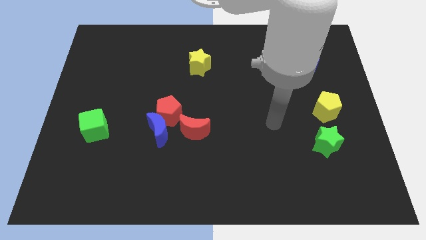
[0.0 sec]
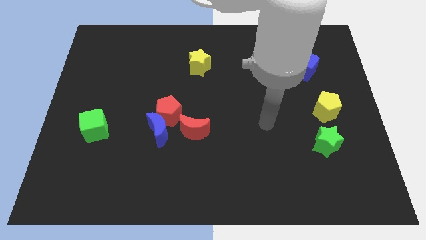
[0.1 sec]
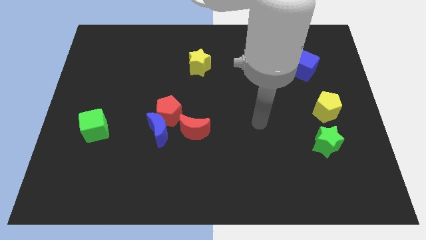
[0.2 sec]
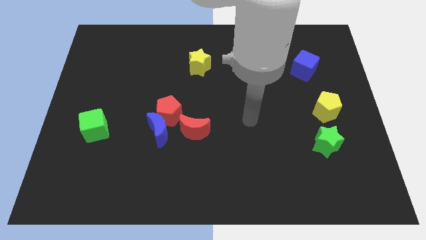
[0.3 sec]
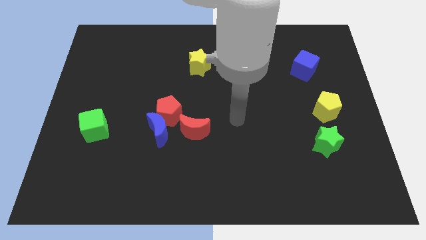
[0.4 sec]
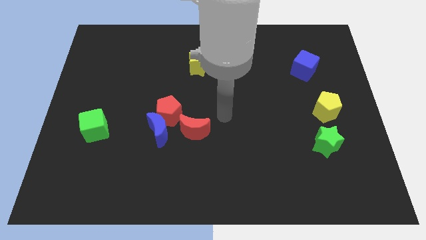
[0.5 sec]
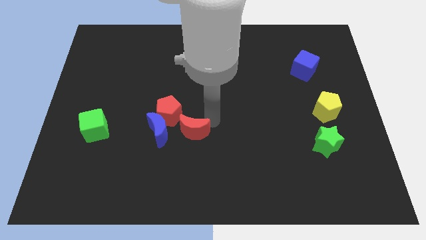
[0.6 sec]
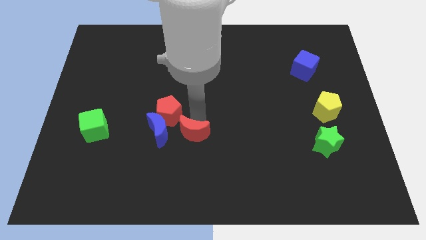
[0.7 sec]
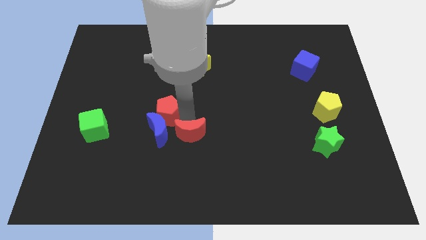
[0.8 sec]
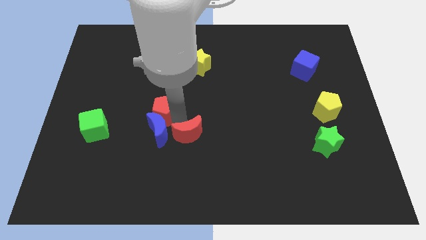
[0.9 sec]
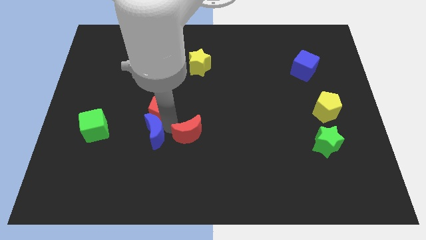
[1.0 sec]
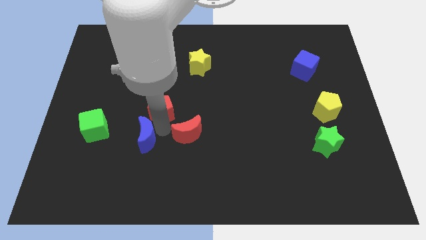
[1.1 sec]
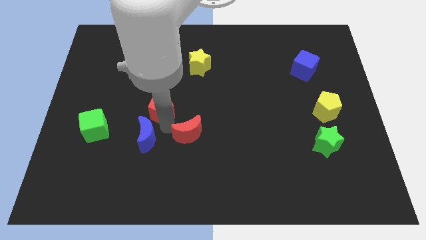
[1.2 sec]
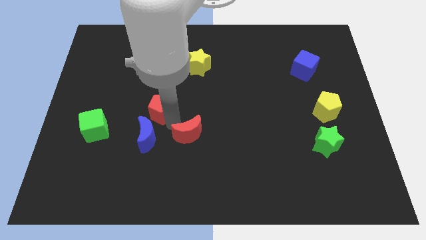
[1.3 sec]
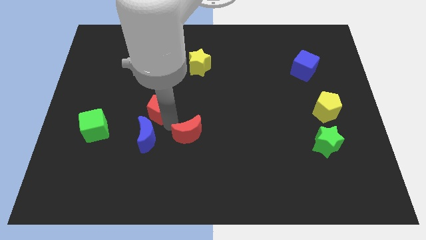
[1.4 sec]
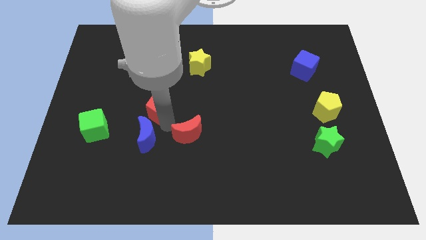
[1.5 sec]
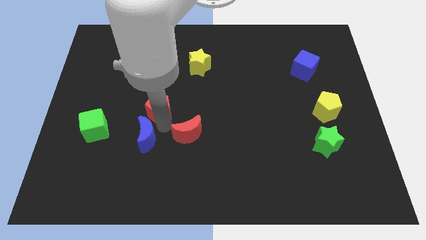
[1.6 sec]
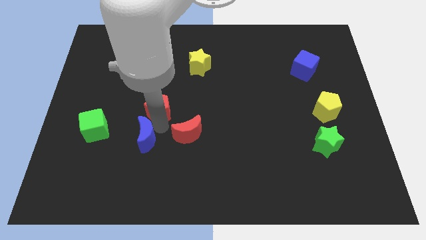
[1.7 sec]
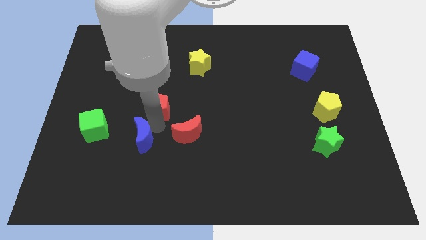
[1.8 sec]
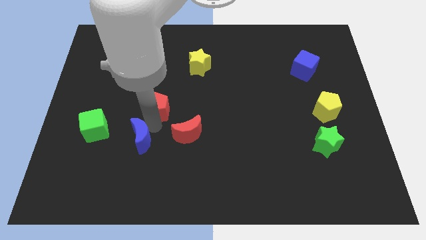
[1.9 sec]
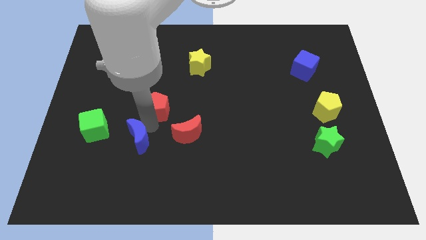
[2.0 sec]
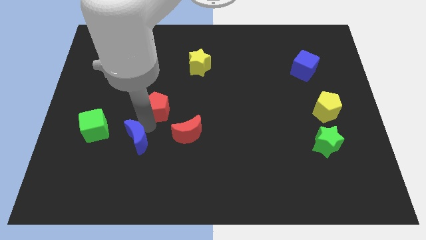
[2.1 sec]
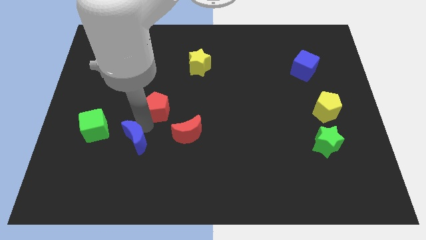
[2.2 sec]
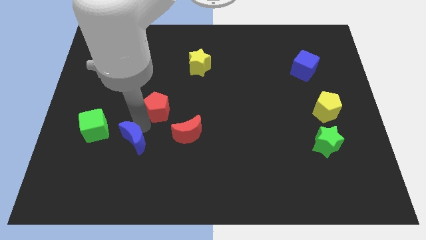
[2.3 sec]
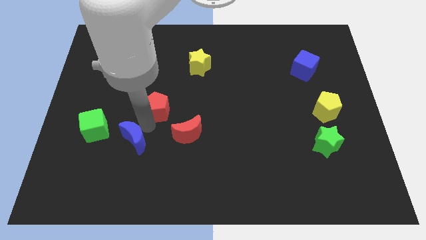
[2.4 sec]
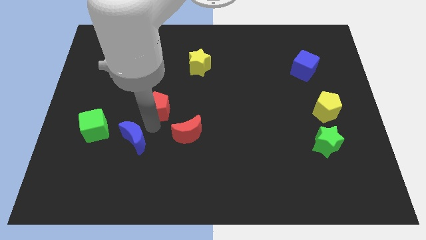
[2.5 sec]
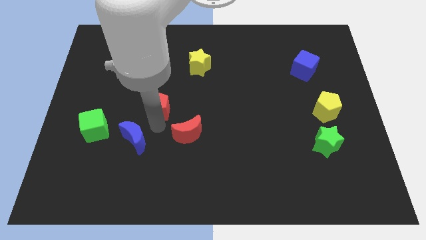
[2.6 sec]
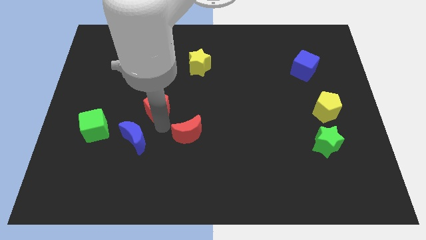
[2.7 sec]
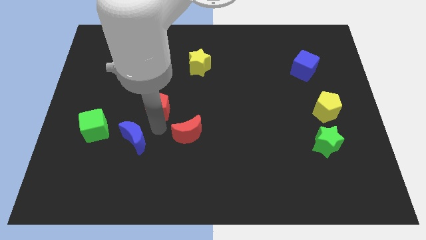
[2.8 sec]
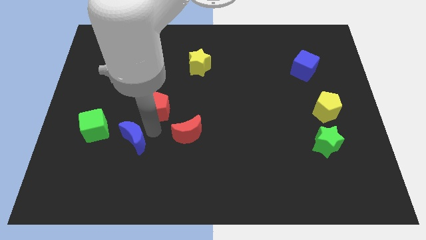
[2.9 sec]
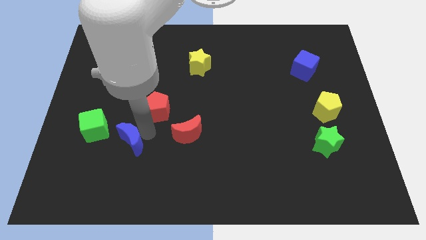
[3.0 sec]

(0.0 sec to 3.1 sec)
pull the blue moon apart from the red pentagon and red moon

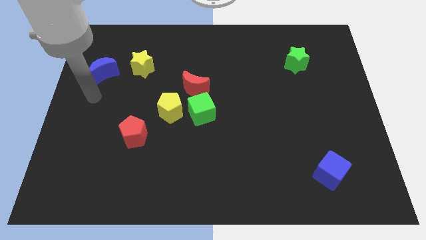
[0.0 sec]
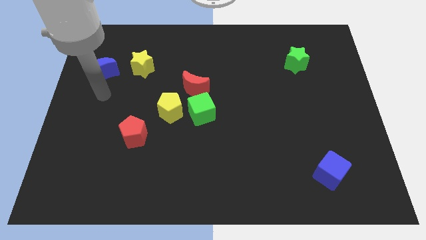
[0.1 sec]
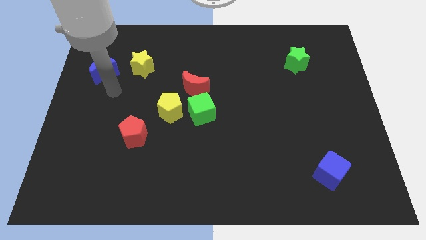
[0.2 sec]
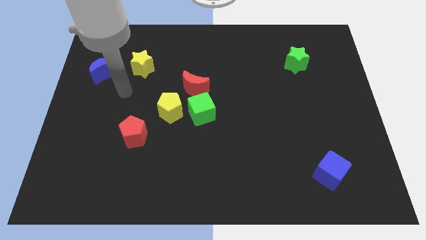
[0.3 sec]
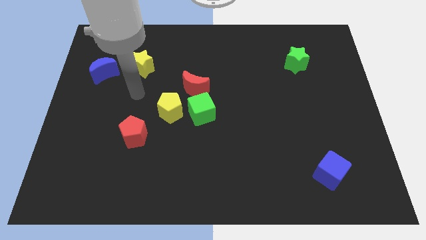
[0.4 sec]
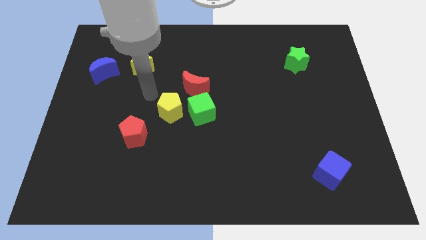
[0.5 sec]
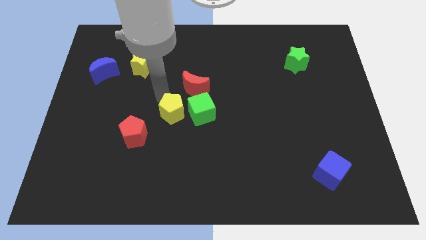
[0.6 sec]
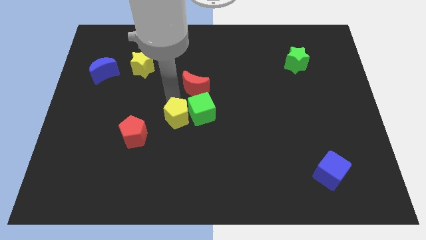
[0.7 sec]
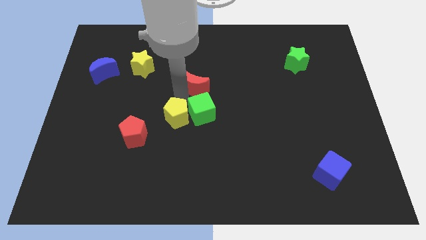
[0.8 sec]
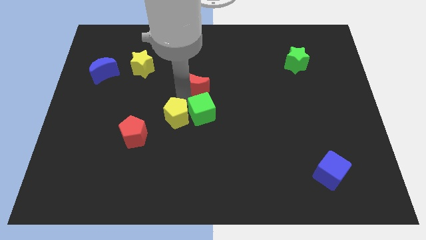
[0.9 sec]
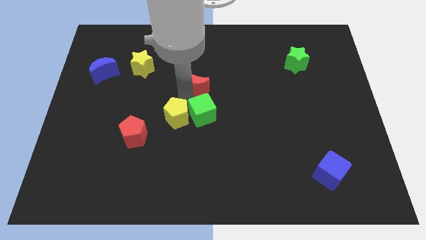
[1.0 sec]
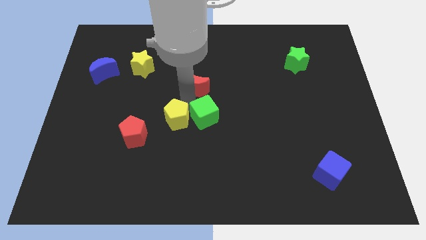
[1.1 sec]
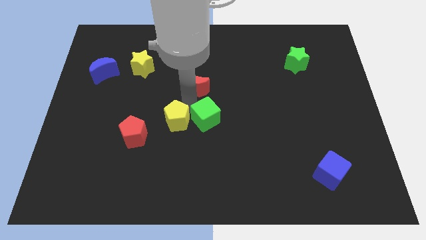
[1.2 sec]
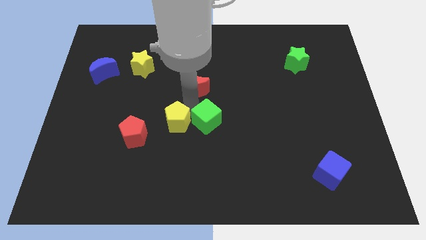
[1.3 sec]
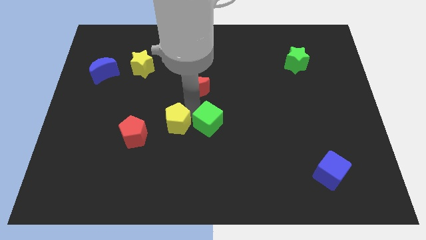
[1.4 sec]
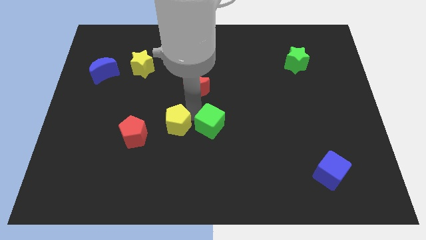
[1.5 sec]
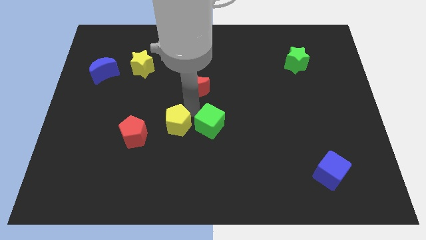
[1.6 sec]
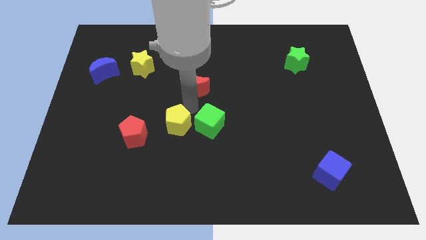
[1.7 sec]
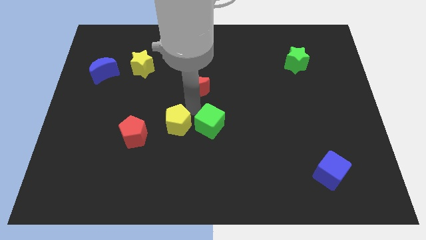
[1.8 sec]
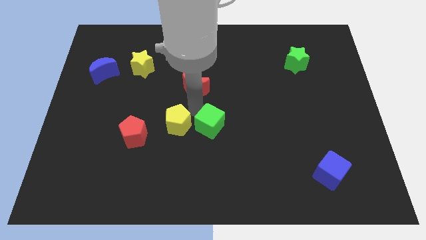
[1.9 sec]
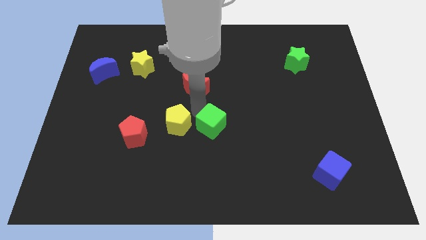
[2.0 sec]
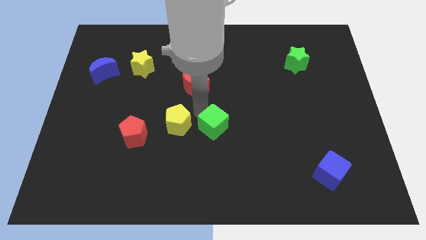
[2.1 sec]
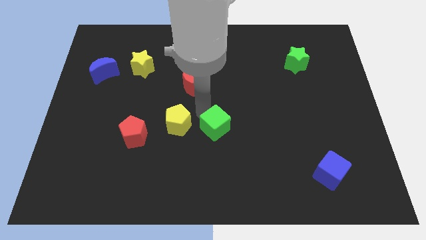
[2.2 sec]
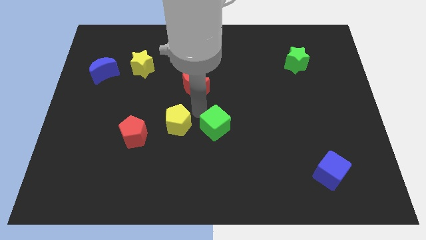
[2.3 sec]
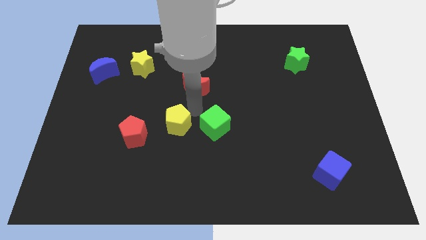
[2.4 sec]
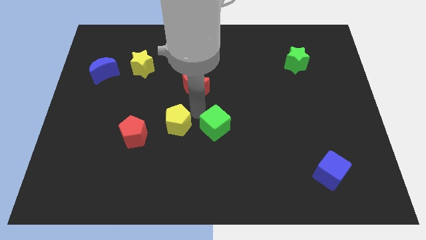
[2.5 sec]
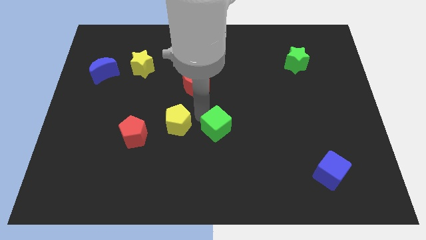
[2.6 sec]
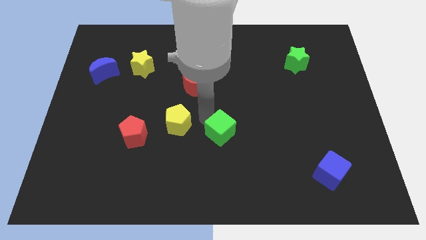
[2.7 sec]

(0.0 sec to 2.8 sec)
pull the green cube apart from the yellow pentagon and red moon

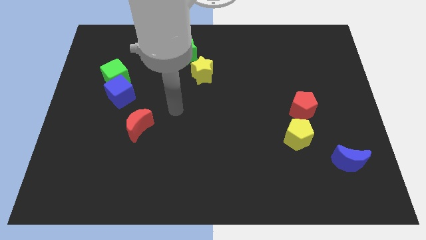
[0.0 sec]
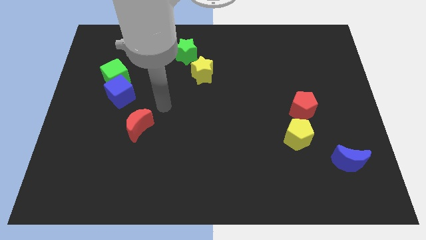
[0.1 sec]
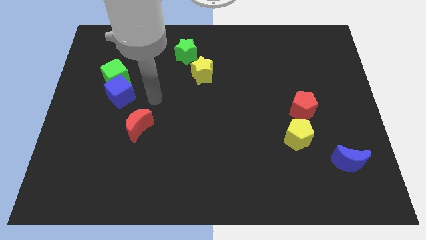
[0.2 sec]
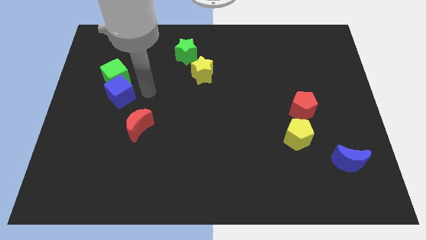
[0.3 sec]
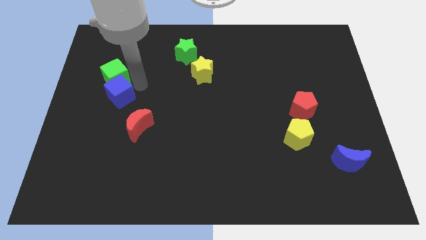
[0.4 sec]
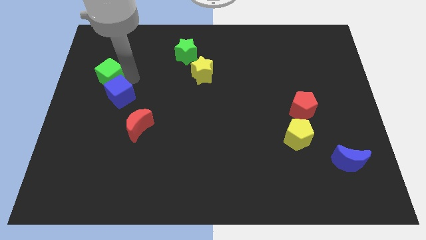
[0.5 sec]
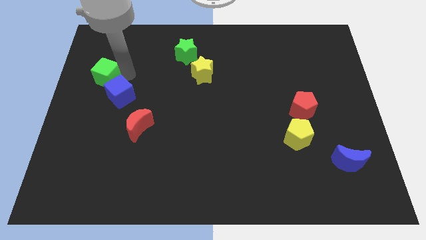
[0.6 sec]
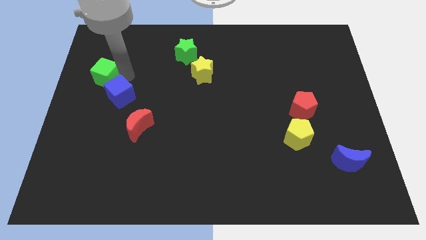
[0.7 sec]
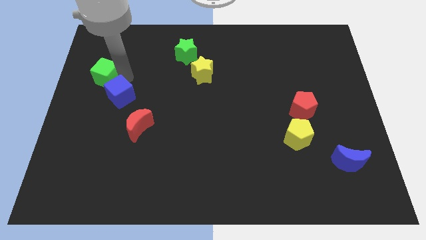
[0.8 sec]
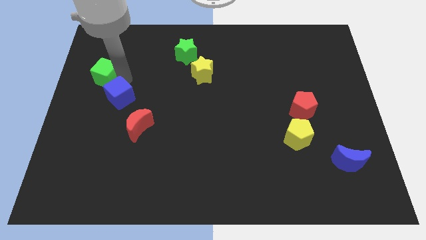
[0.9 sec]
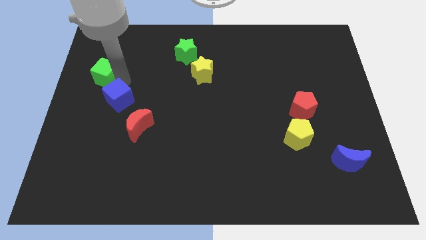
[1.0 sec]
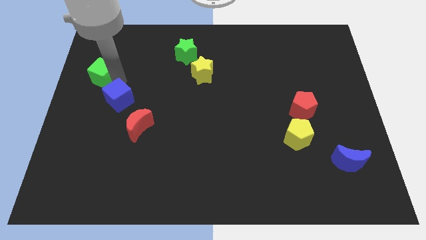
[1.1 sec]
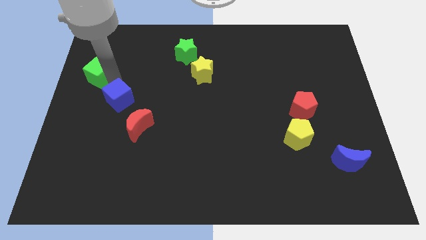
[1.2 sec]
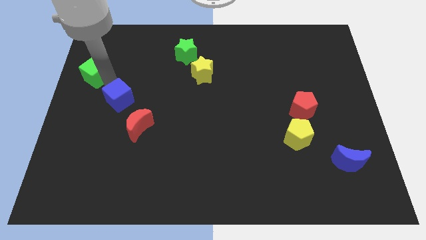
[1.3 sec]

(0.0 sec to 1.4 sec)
move the blue cube away from the green cube

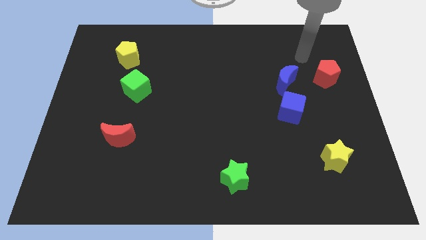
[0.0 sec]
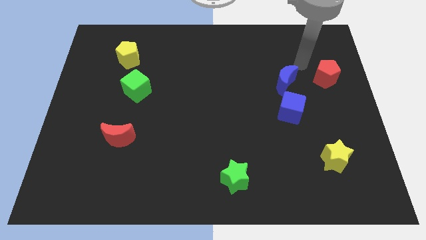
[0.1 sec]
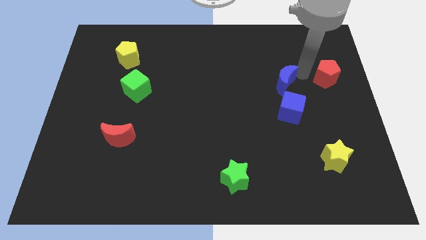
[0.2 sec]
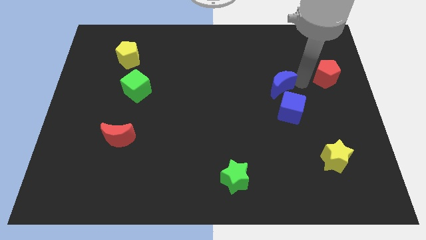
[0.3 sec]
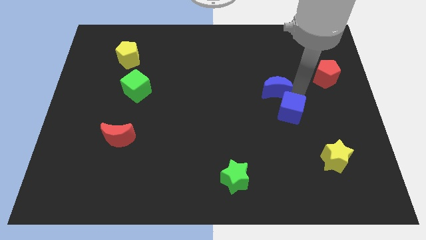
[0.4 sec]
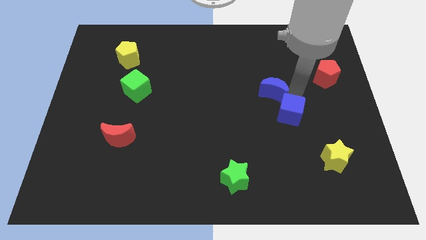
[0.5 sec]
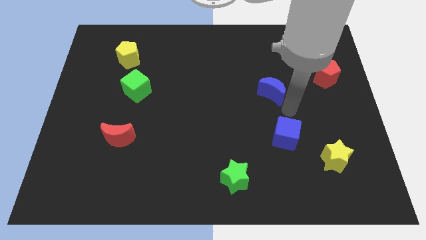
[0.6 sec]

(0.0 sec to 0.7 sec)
move the blue moon away from the blue cube

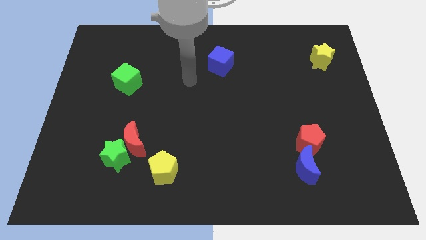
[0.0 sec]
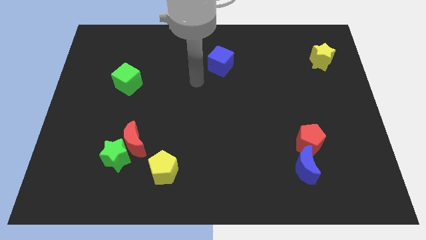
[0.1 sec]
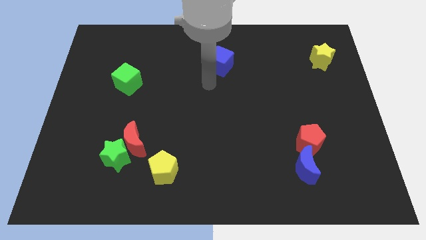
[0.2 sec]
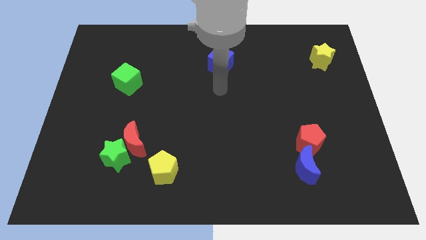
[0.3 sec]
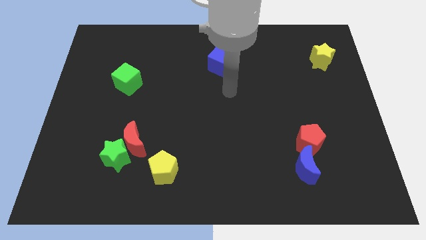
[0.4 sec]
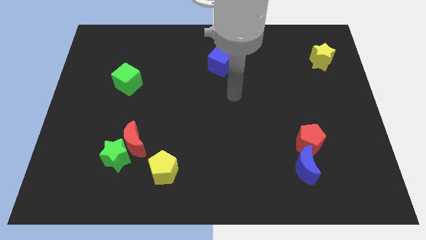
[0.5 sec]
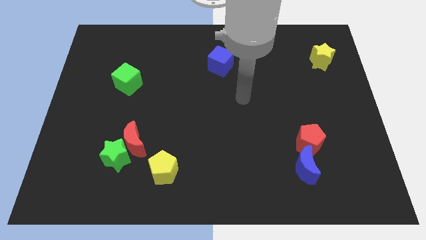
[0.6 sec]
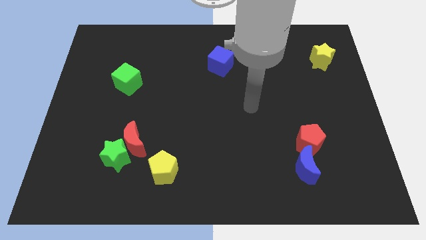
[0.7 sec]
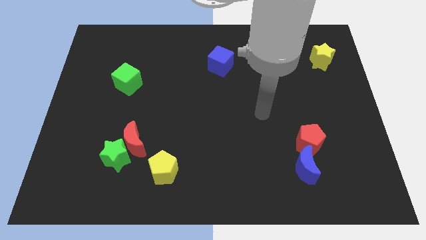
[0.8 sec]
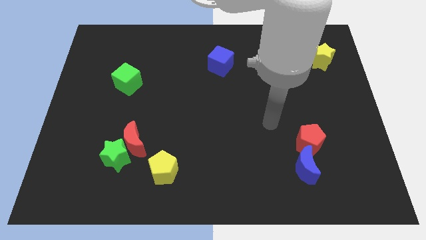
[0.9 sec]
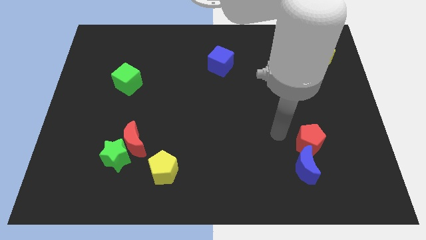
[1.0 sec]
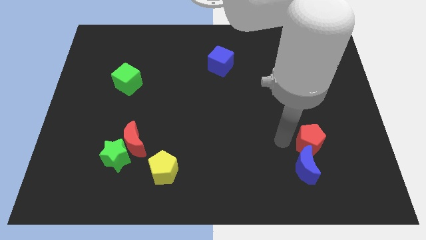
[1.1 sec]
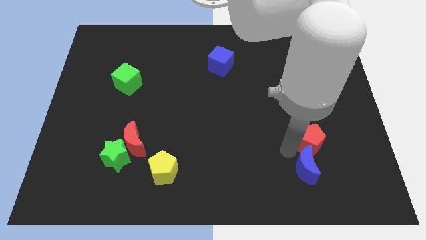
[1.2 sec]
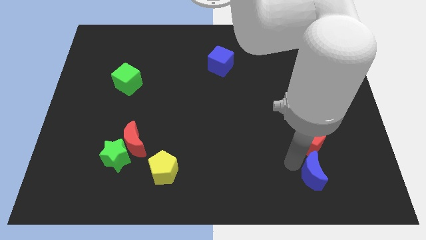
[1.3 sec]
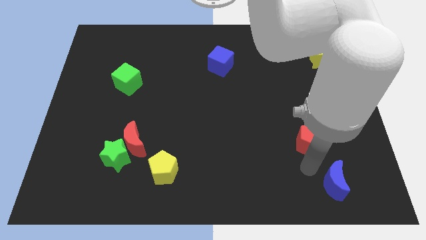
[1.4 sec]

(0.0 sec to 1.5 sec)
pull the red pentagon apart from the blue moon
